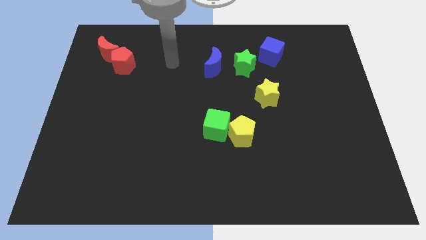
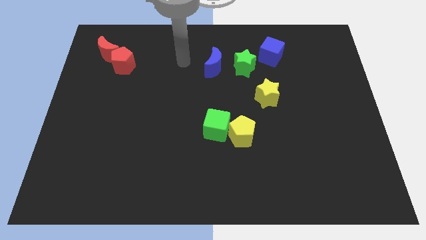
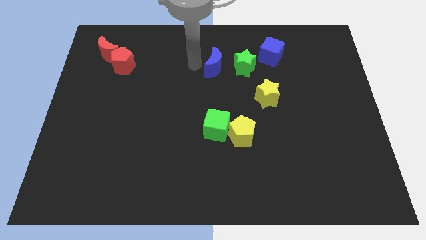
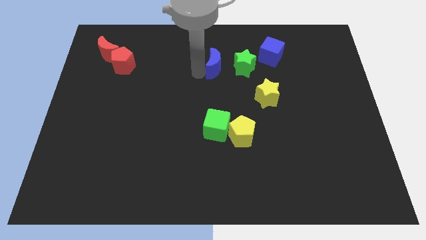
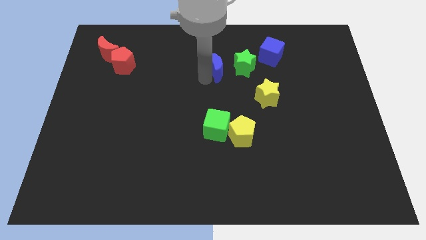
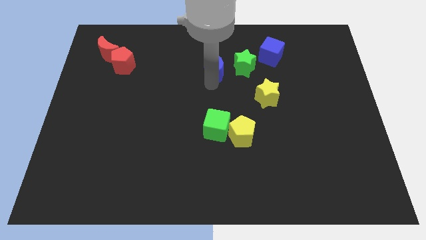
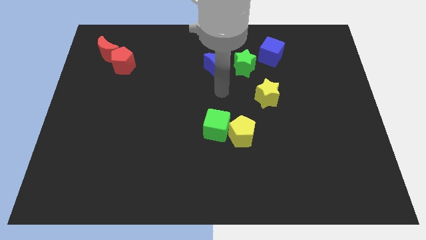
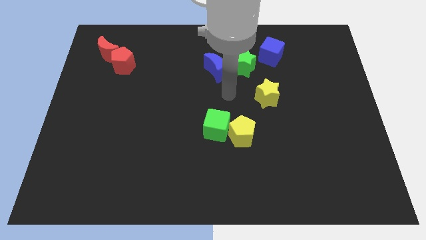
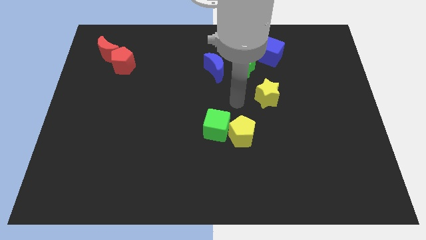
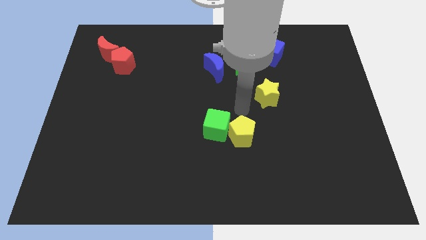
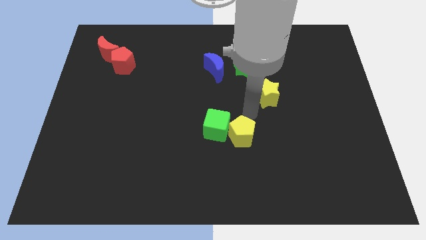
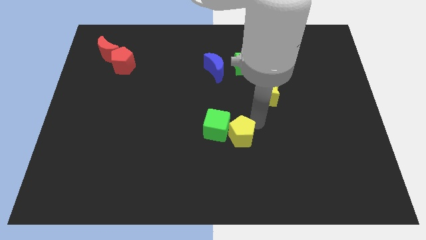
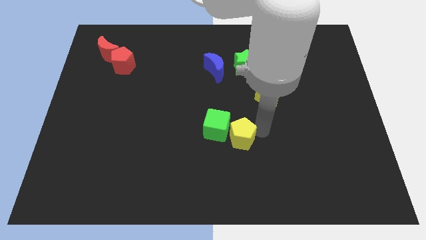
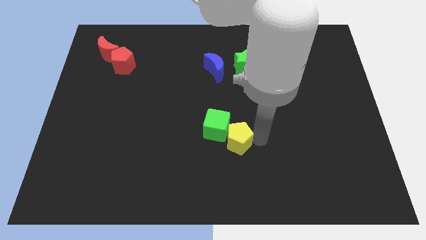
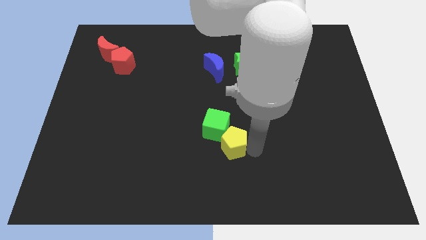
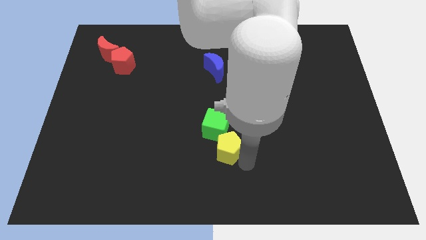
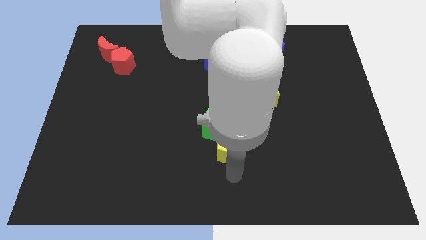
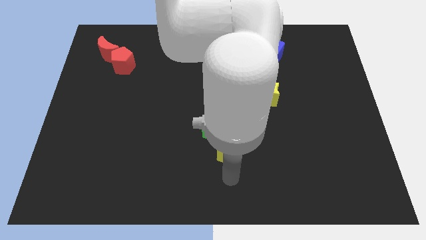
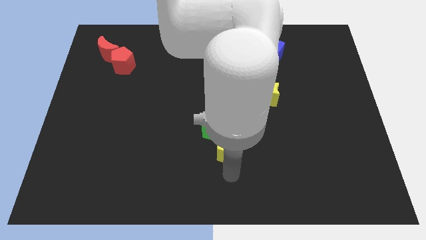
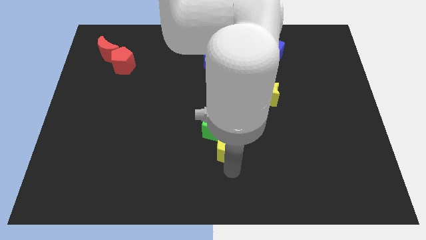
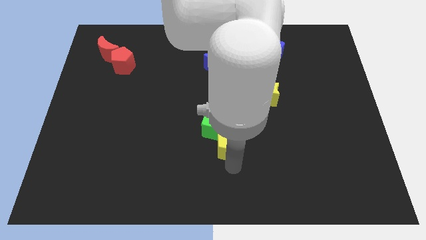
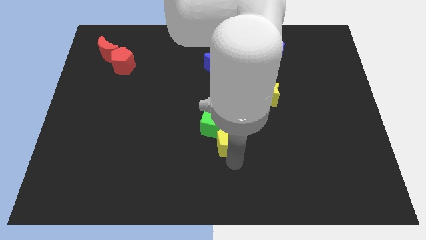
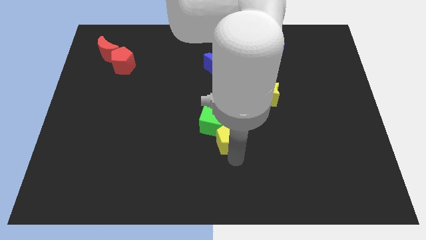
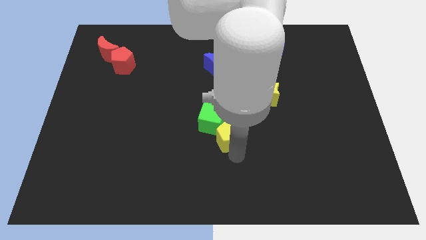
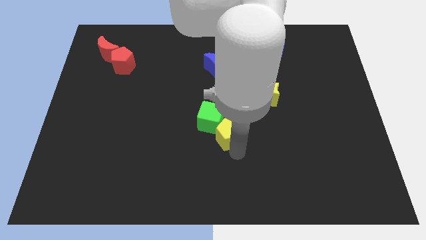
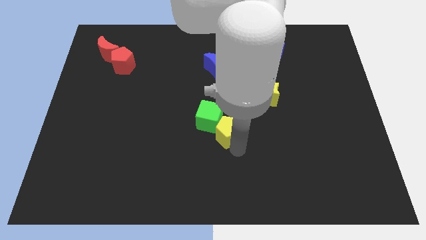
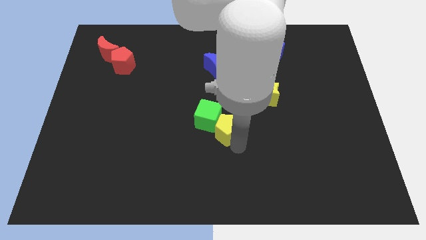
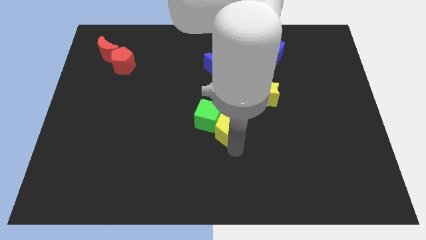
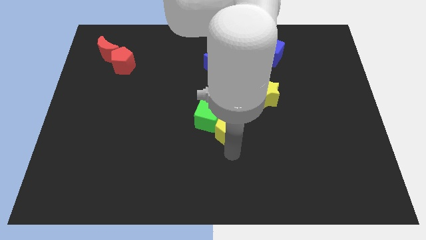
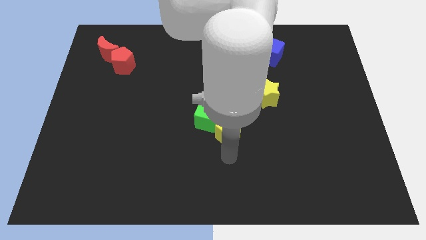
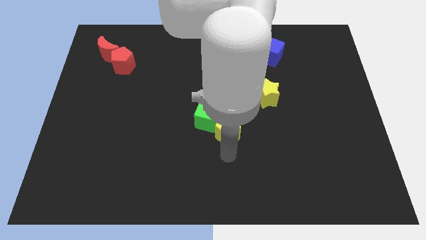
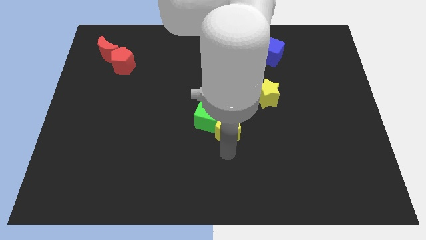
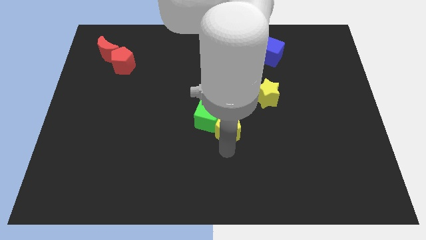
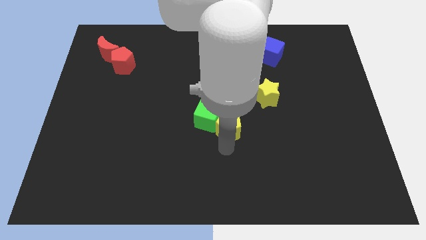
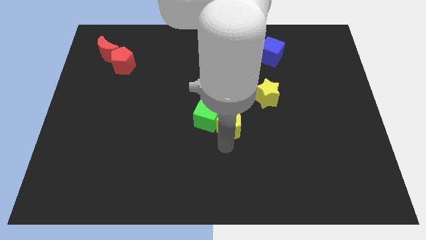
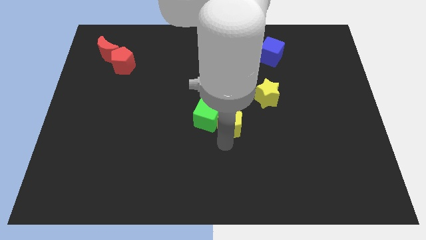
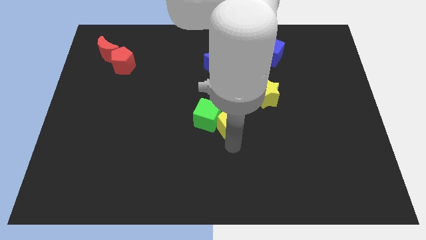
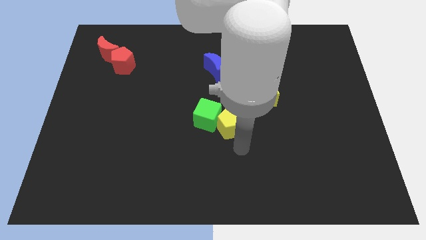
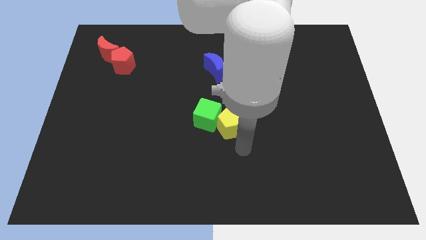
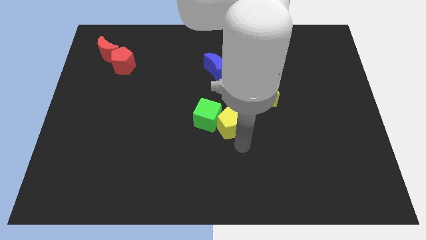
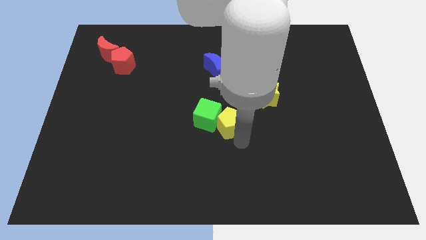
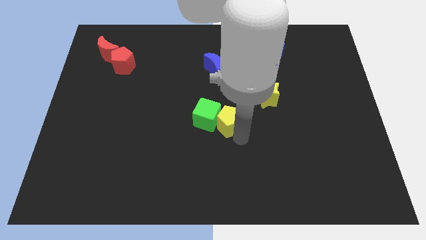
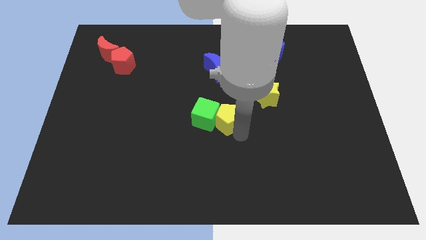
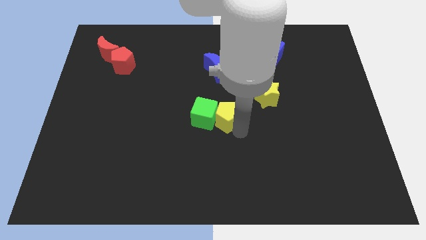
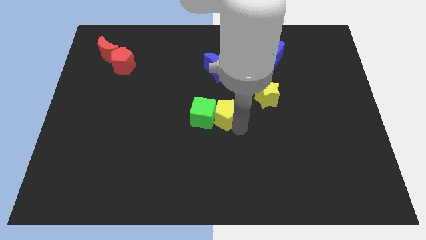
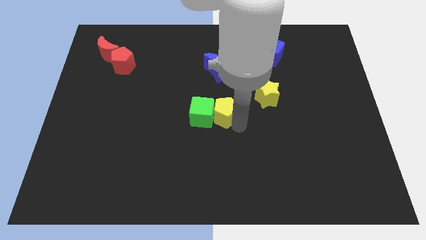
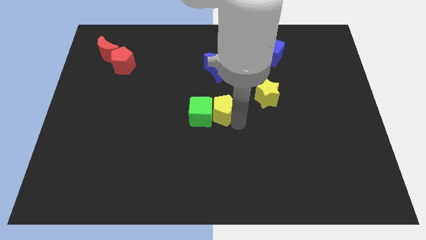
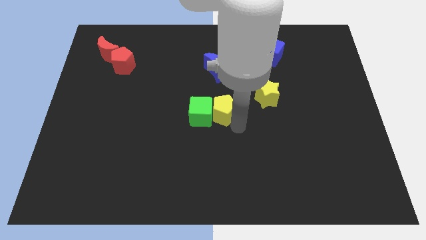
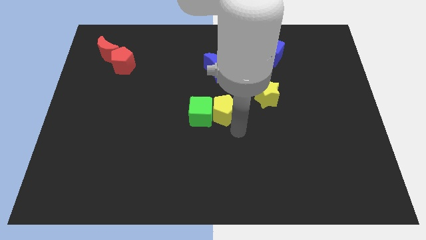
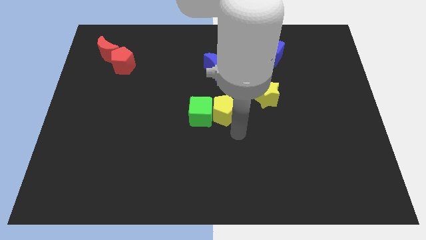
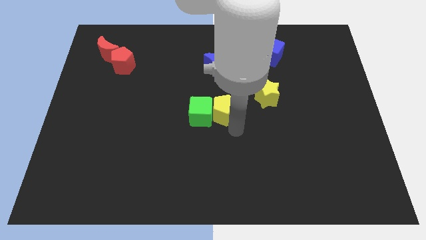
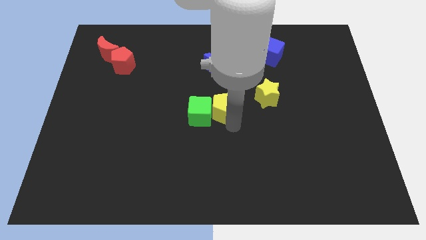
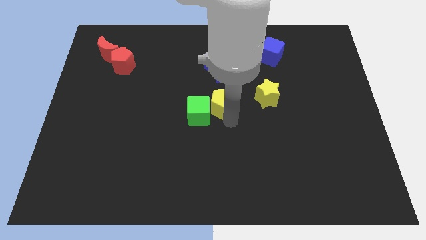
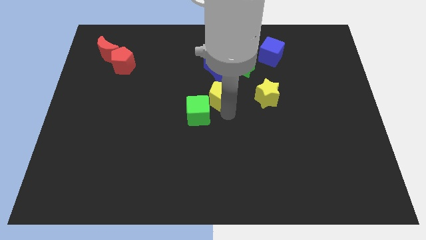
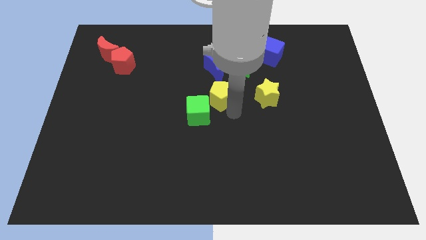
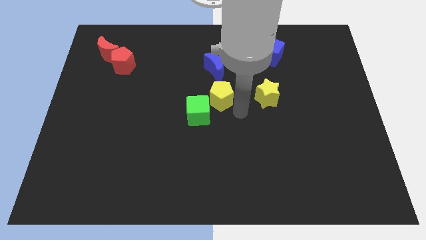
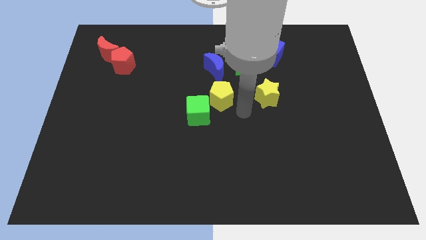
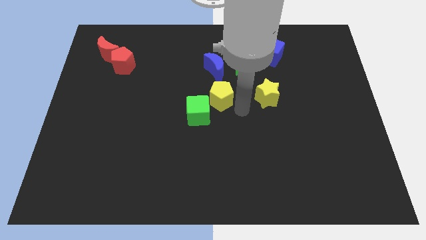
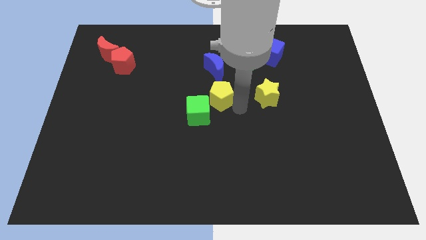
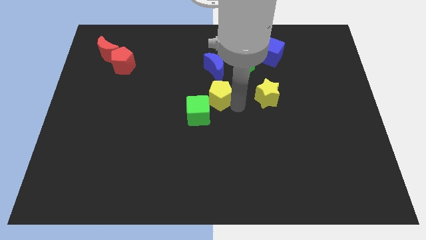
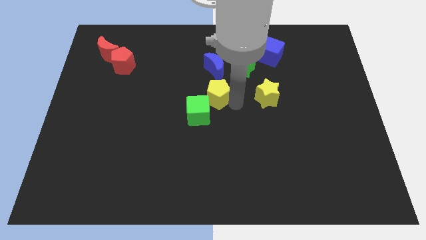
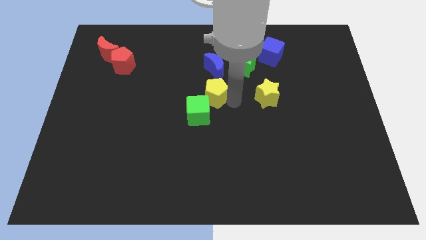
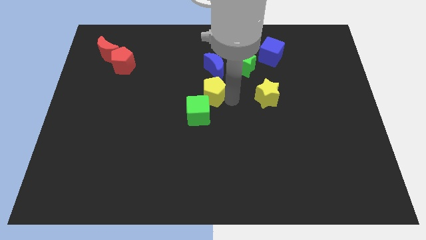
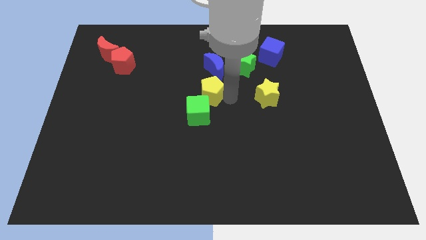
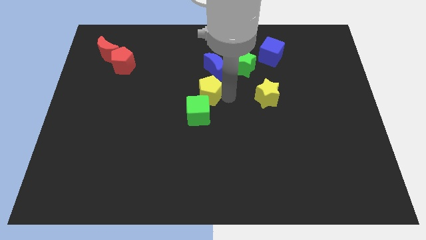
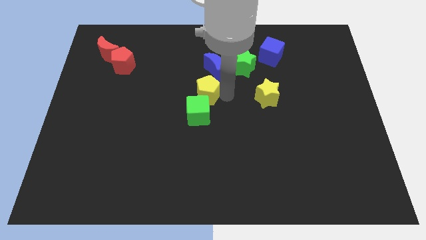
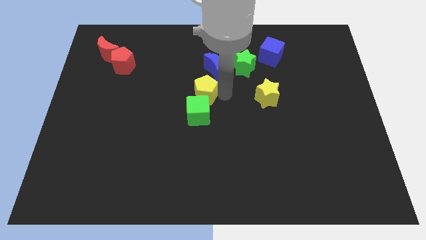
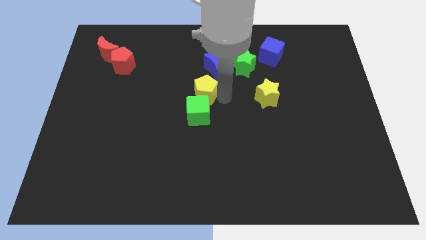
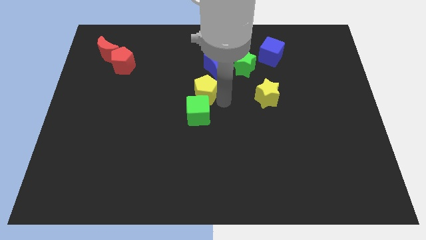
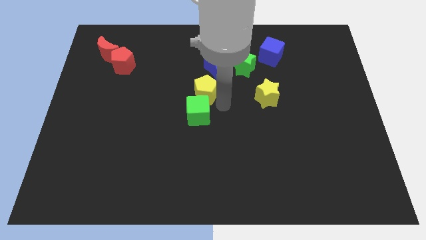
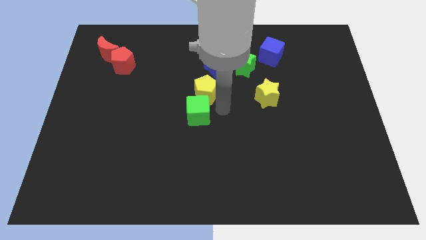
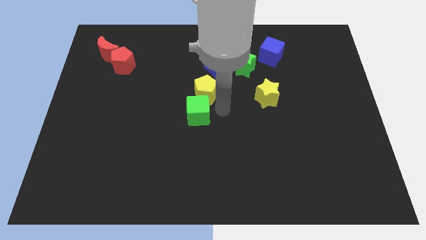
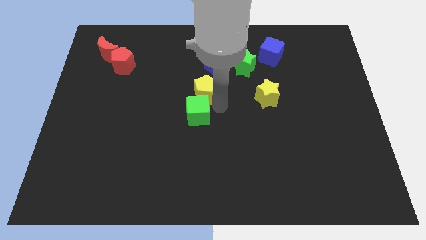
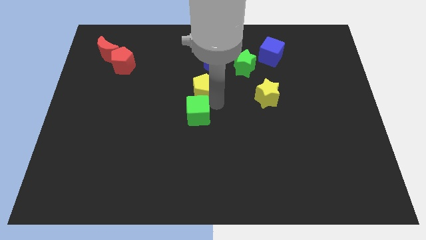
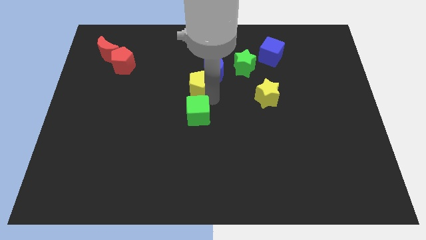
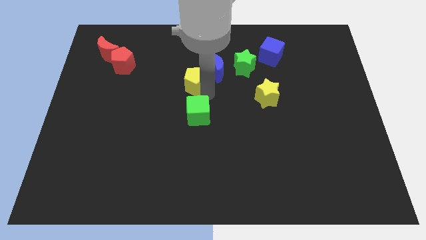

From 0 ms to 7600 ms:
put the yellow pentagon left of the blue moon
